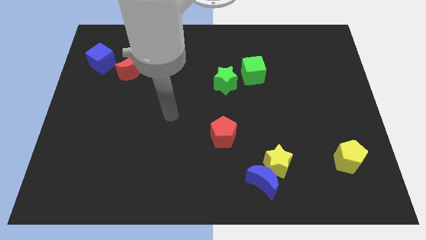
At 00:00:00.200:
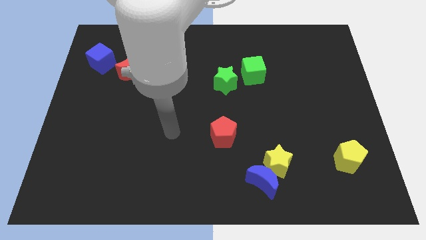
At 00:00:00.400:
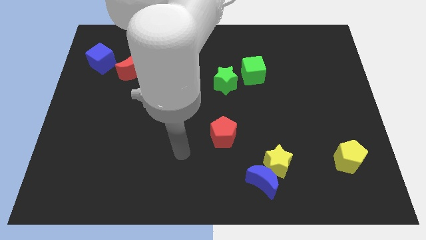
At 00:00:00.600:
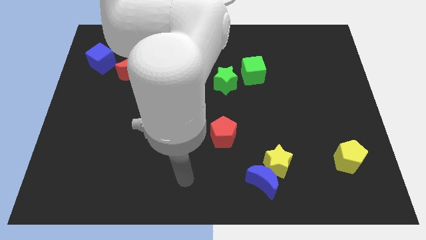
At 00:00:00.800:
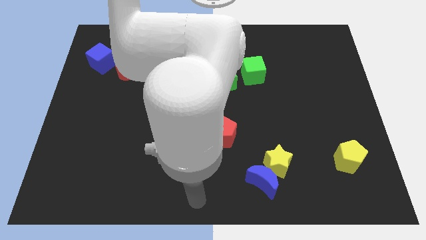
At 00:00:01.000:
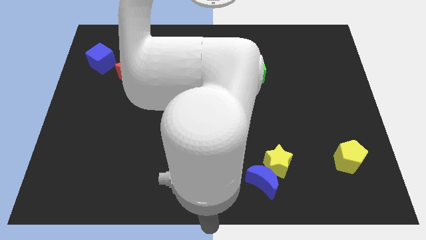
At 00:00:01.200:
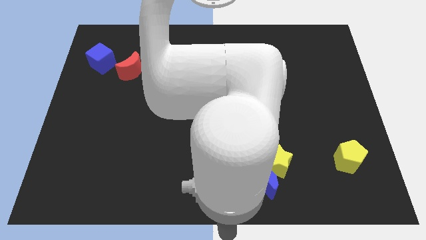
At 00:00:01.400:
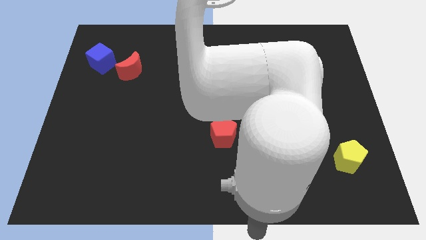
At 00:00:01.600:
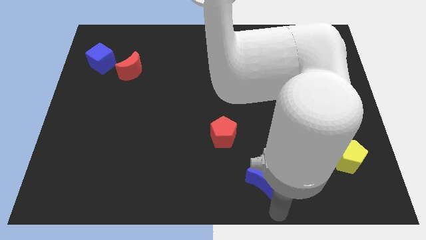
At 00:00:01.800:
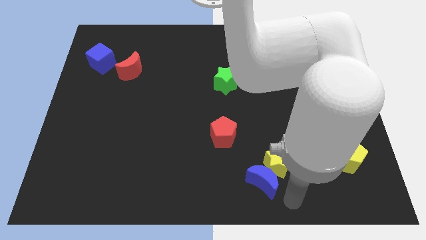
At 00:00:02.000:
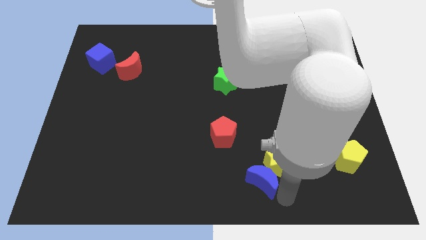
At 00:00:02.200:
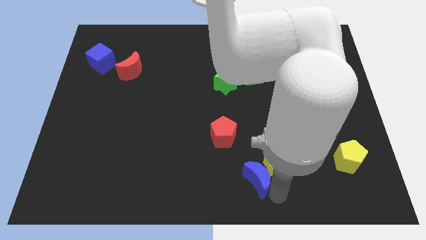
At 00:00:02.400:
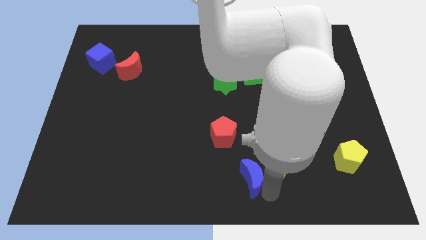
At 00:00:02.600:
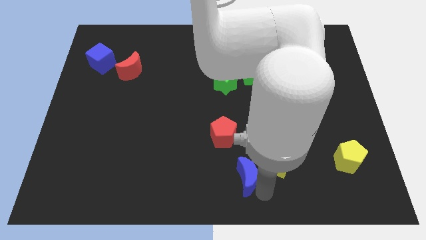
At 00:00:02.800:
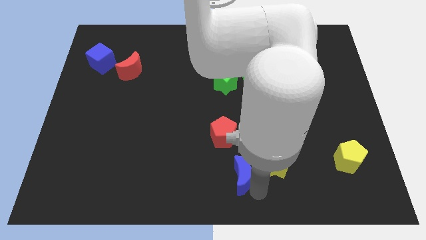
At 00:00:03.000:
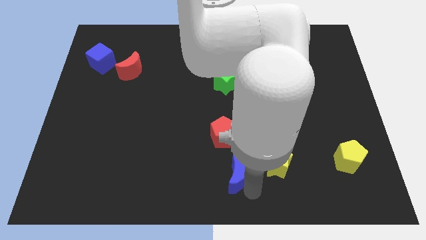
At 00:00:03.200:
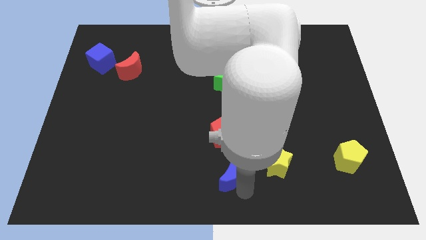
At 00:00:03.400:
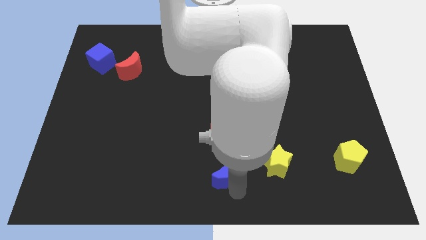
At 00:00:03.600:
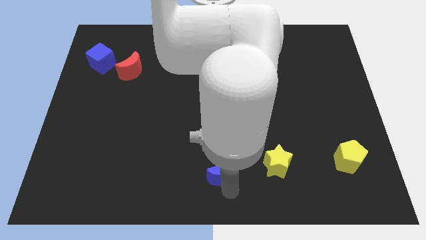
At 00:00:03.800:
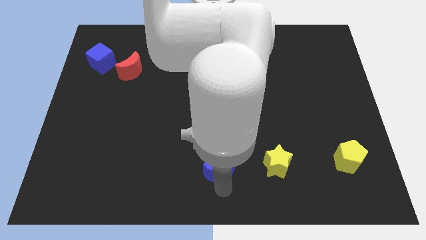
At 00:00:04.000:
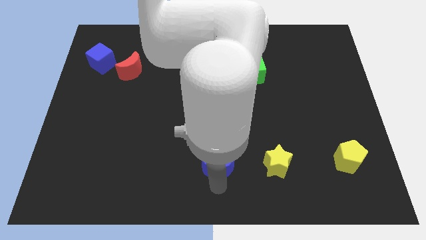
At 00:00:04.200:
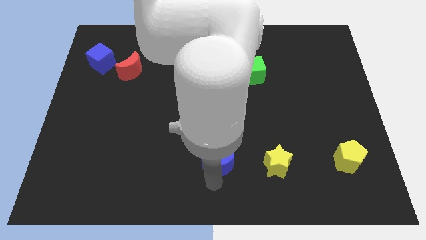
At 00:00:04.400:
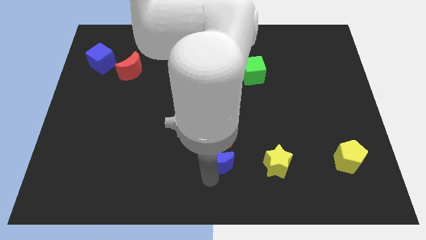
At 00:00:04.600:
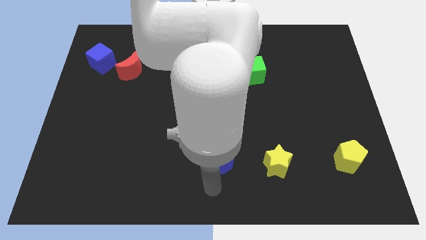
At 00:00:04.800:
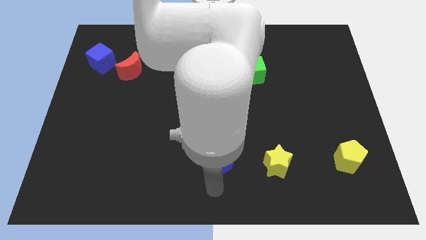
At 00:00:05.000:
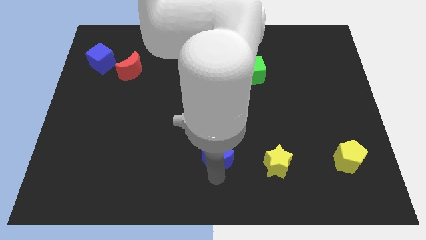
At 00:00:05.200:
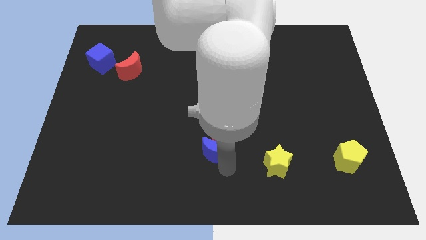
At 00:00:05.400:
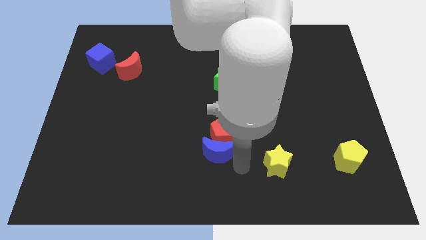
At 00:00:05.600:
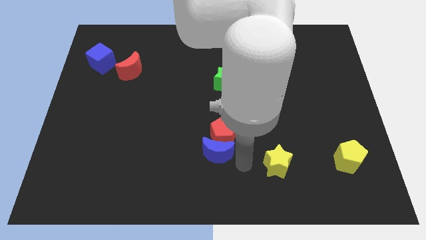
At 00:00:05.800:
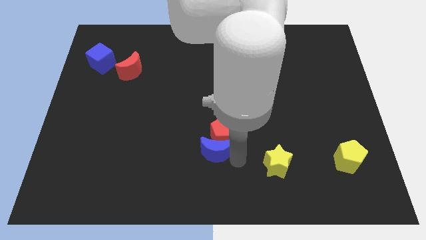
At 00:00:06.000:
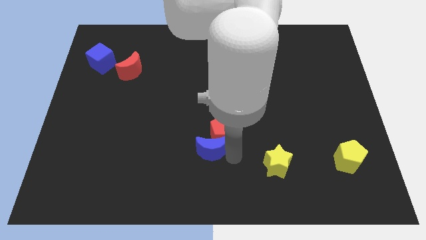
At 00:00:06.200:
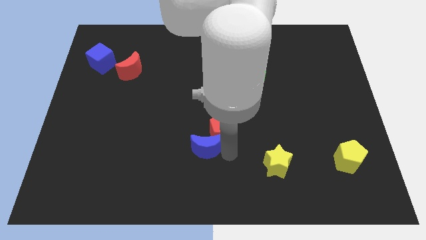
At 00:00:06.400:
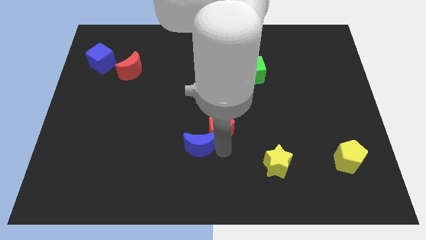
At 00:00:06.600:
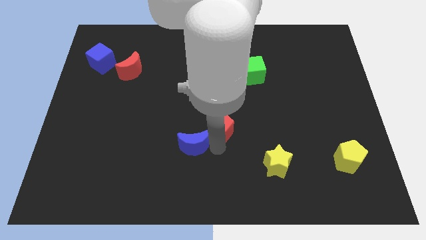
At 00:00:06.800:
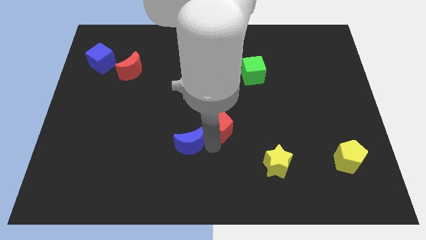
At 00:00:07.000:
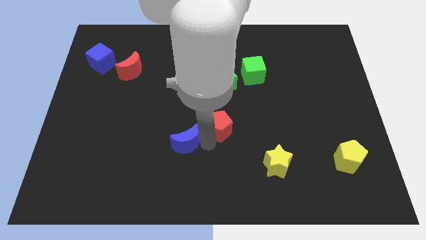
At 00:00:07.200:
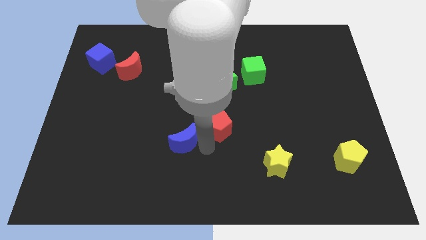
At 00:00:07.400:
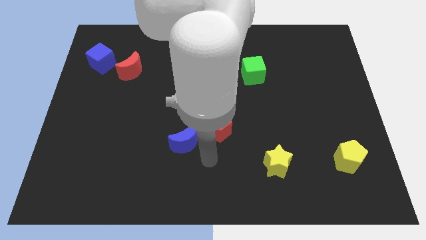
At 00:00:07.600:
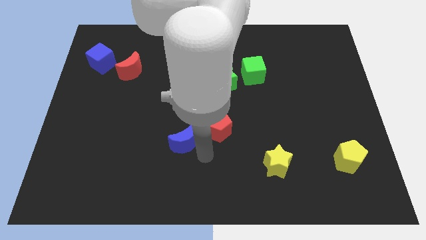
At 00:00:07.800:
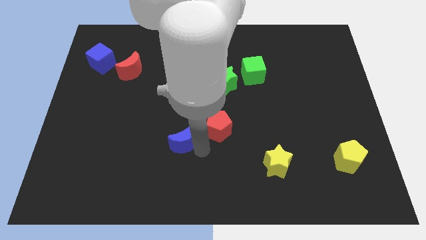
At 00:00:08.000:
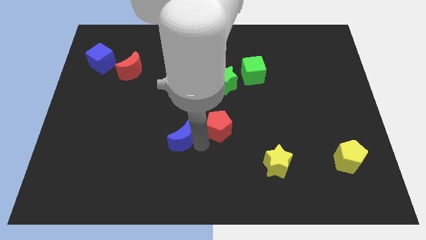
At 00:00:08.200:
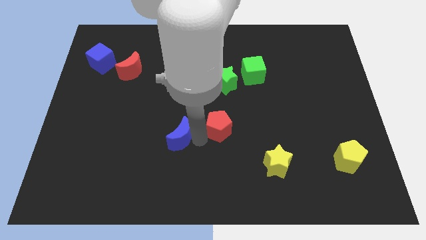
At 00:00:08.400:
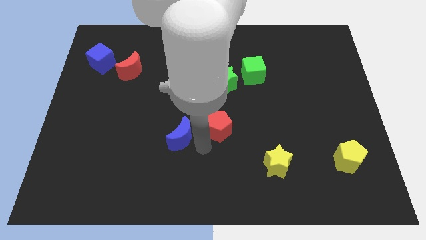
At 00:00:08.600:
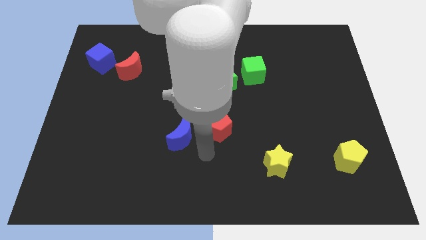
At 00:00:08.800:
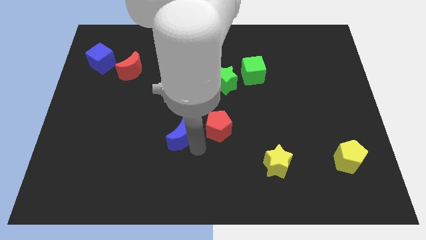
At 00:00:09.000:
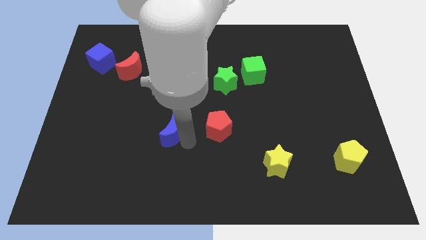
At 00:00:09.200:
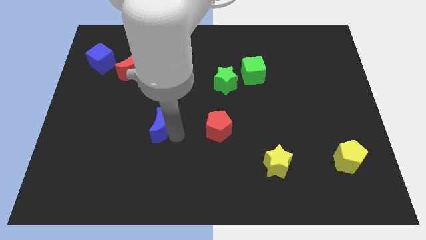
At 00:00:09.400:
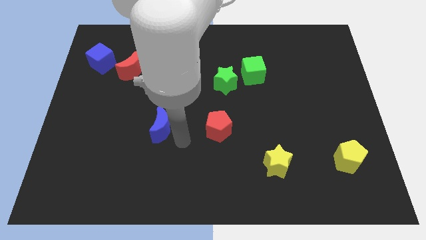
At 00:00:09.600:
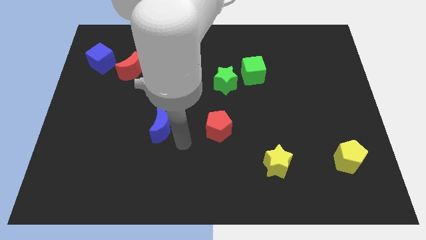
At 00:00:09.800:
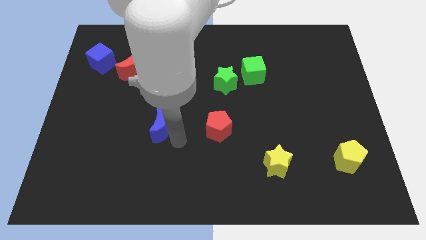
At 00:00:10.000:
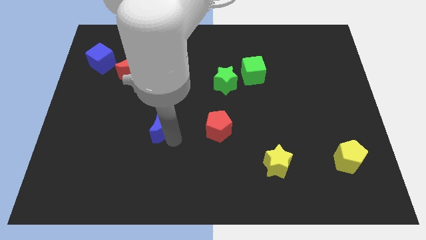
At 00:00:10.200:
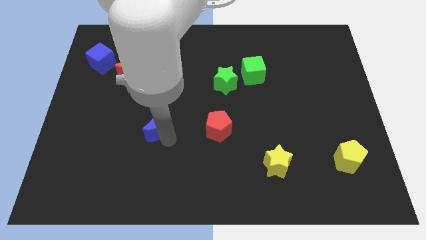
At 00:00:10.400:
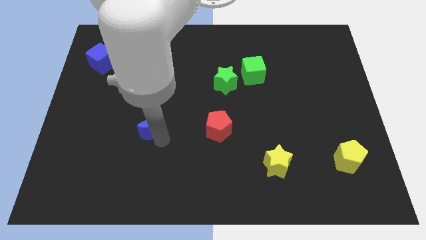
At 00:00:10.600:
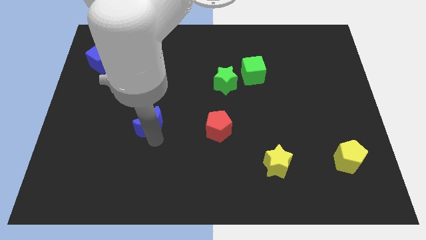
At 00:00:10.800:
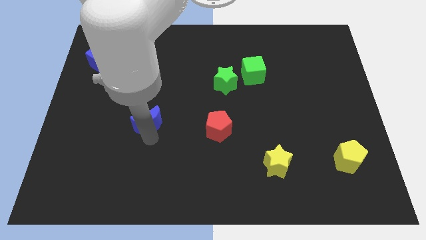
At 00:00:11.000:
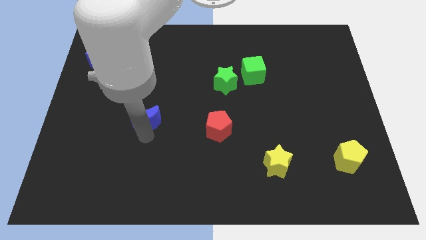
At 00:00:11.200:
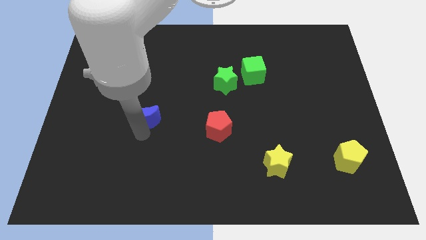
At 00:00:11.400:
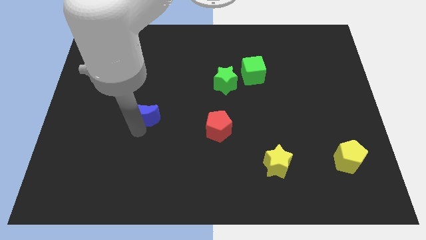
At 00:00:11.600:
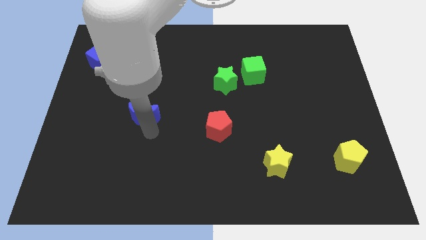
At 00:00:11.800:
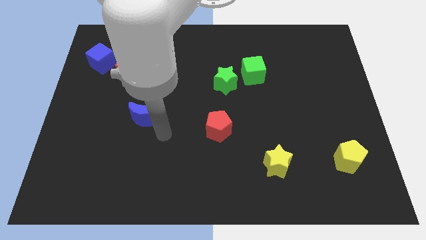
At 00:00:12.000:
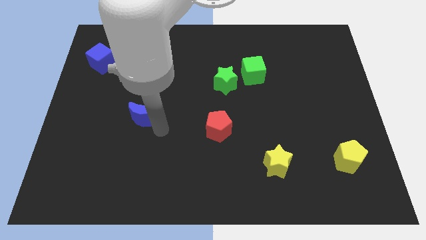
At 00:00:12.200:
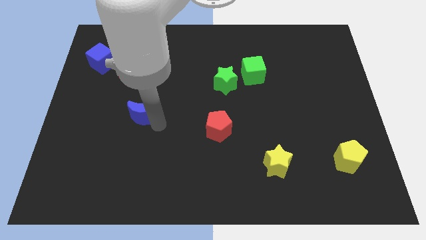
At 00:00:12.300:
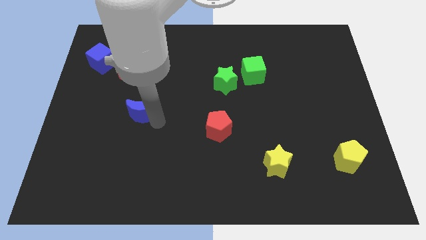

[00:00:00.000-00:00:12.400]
slide the blue moon to the bottom of the red moon
